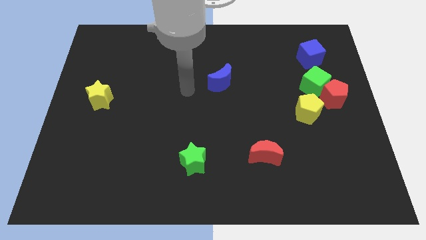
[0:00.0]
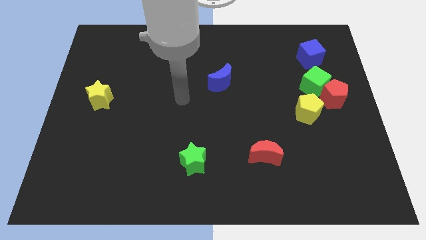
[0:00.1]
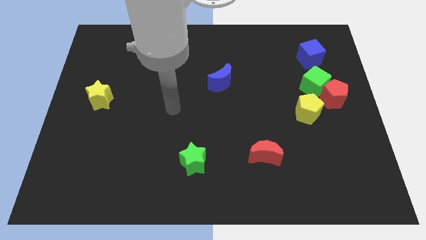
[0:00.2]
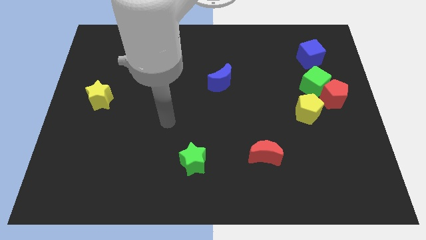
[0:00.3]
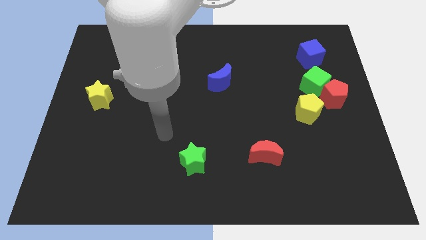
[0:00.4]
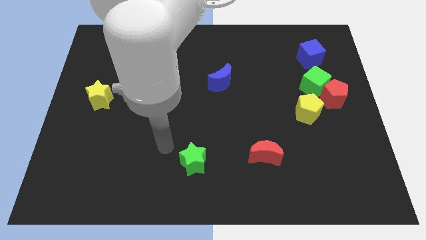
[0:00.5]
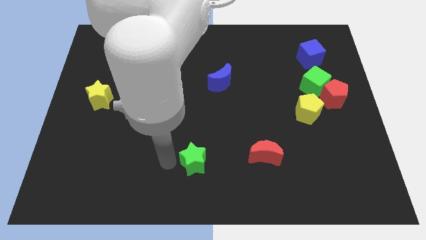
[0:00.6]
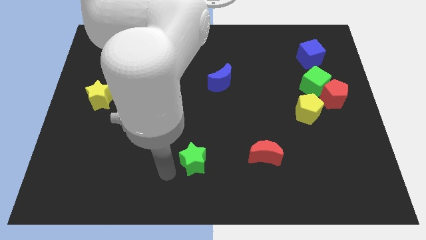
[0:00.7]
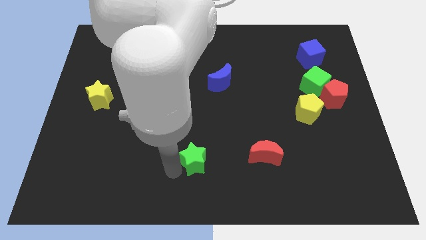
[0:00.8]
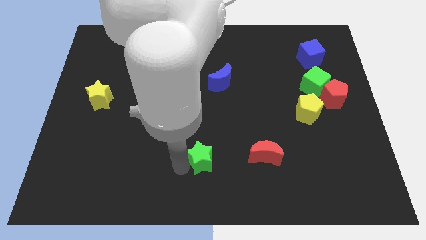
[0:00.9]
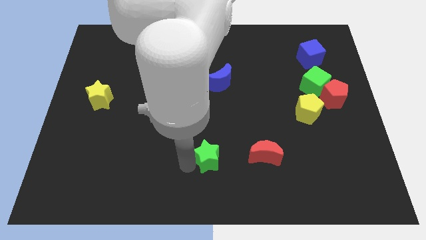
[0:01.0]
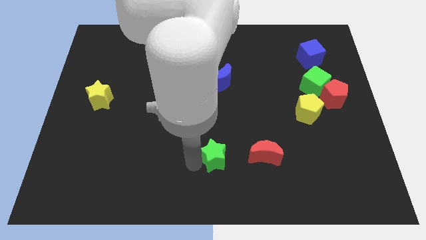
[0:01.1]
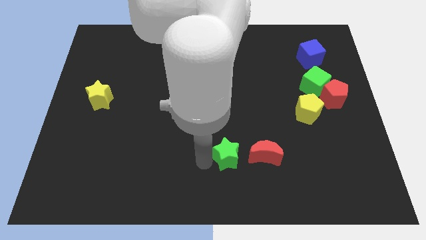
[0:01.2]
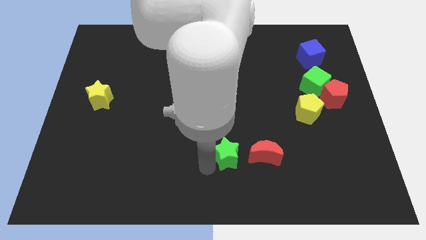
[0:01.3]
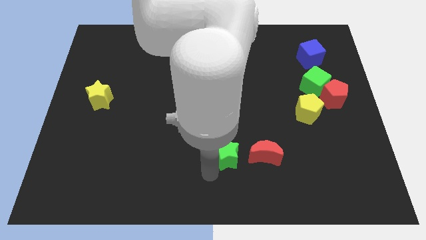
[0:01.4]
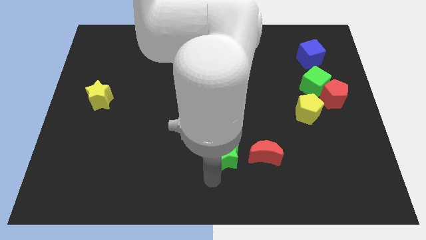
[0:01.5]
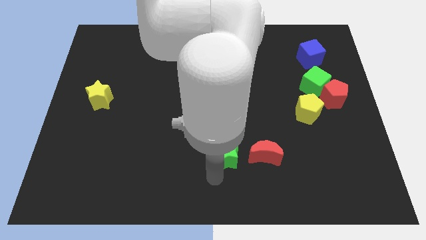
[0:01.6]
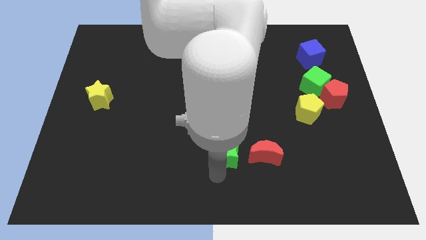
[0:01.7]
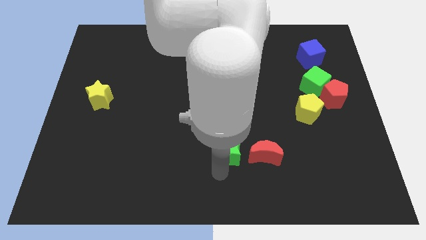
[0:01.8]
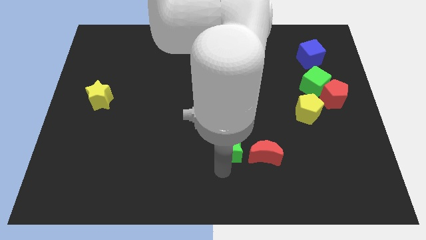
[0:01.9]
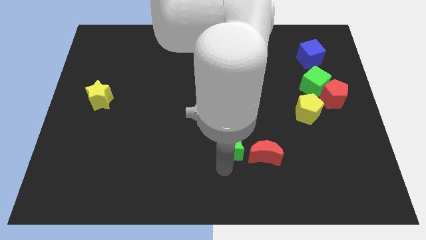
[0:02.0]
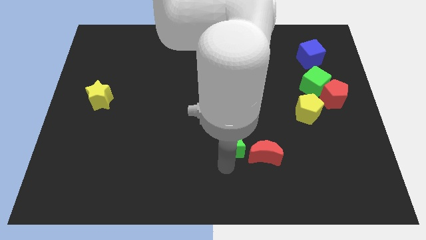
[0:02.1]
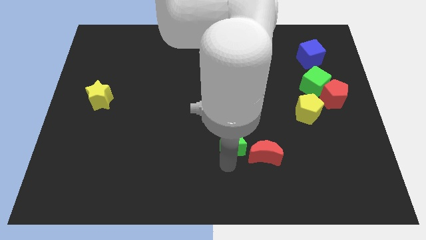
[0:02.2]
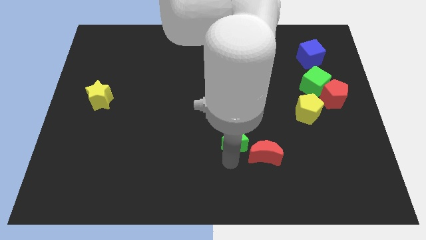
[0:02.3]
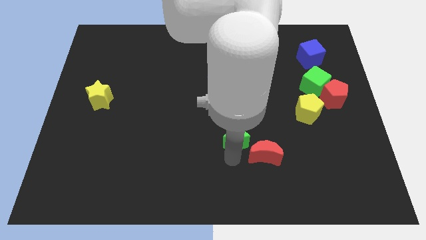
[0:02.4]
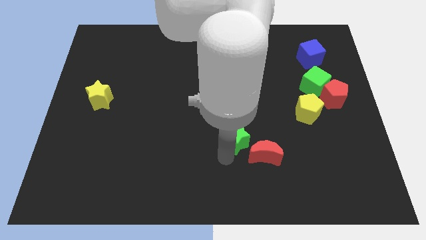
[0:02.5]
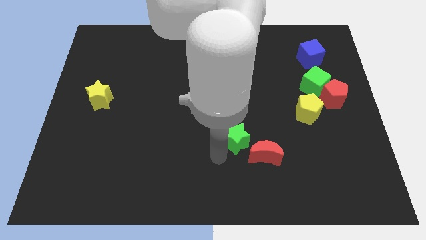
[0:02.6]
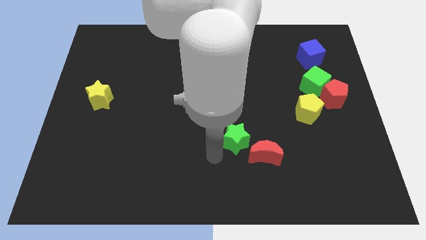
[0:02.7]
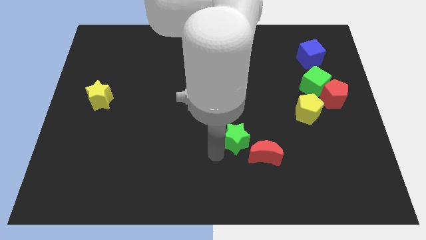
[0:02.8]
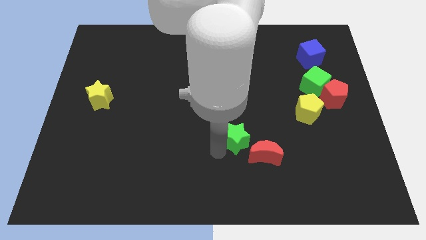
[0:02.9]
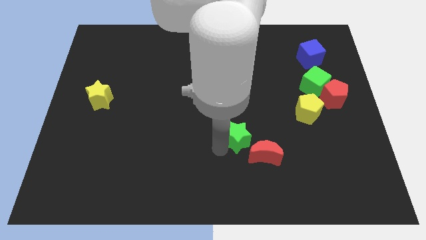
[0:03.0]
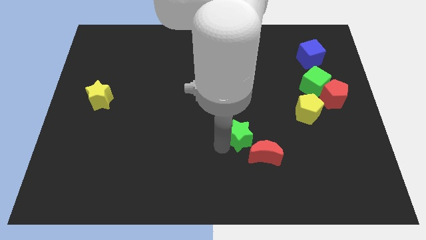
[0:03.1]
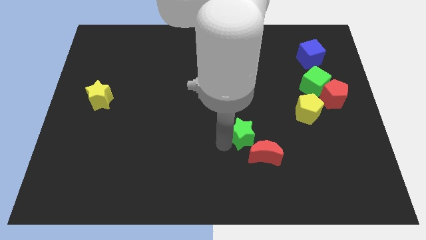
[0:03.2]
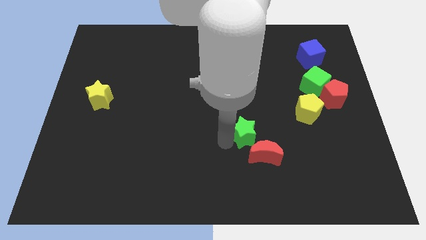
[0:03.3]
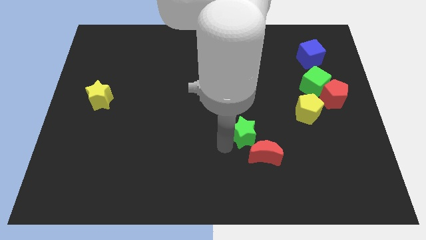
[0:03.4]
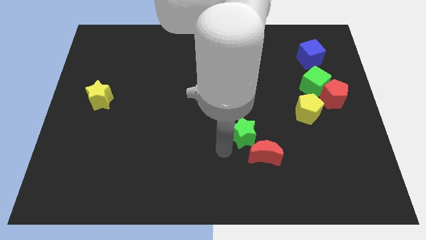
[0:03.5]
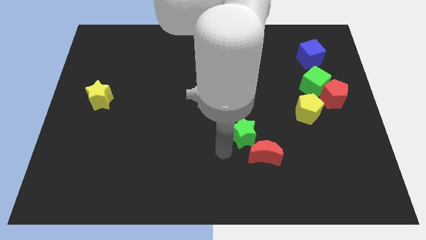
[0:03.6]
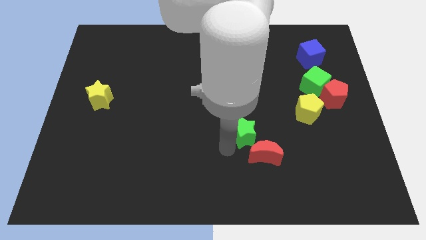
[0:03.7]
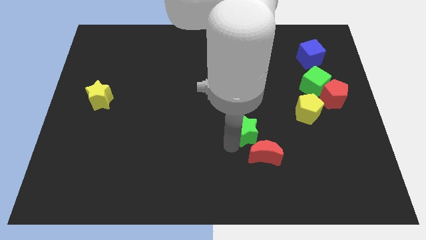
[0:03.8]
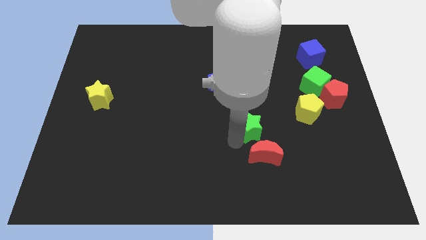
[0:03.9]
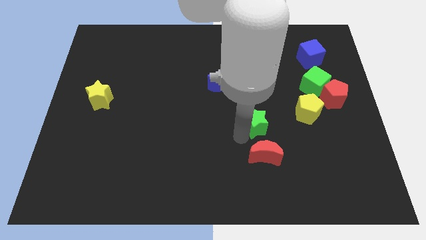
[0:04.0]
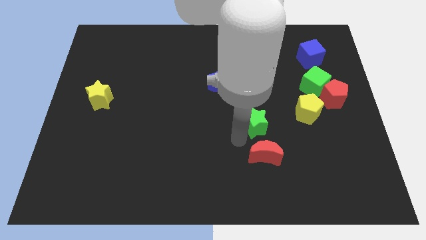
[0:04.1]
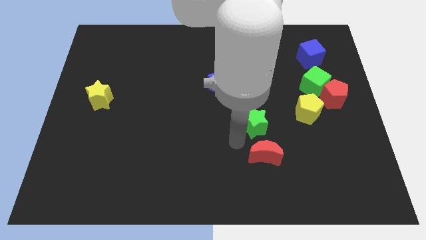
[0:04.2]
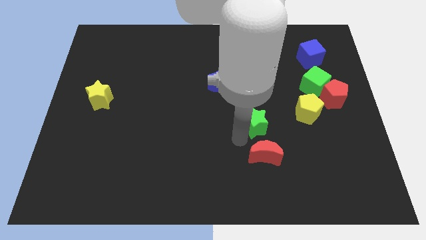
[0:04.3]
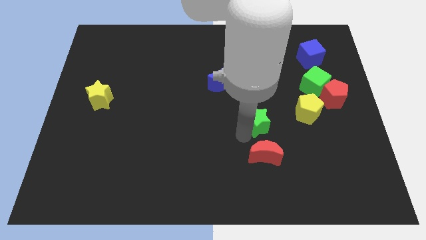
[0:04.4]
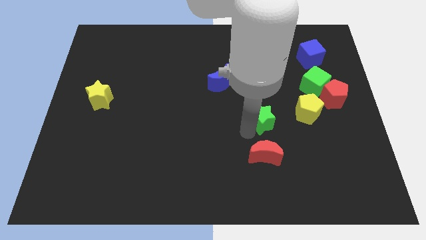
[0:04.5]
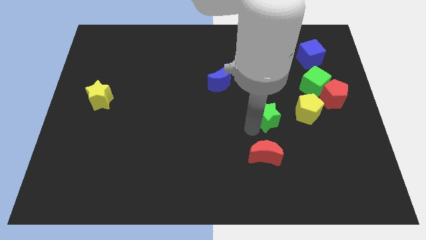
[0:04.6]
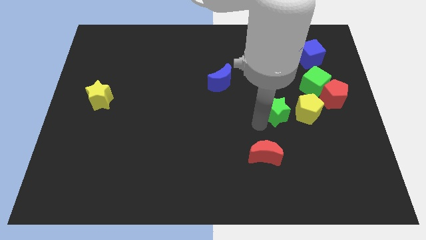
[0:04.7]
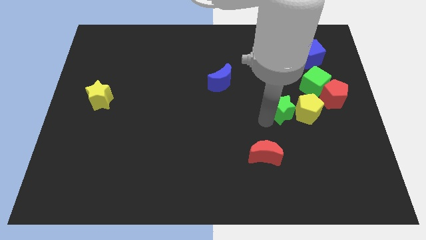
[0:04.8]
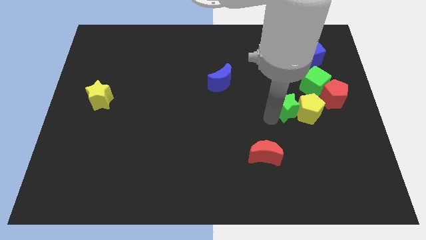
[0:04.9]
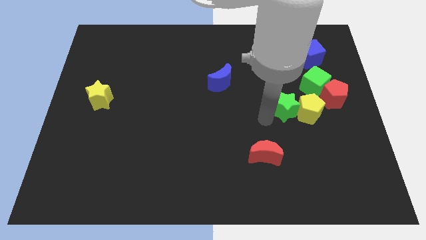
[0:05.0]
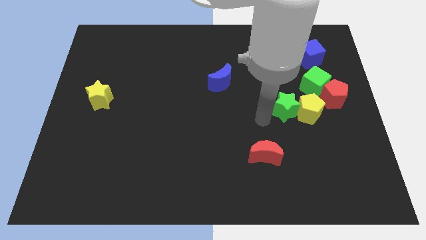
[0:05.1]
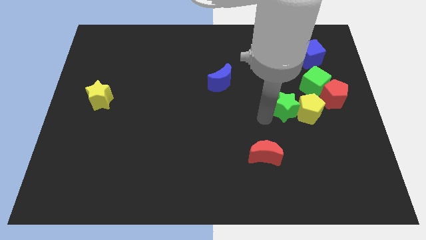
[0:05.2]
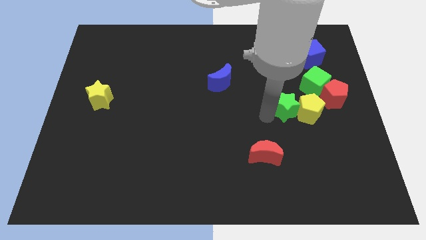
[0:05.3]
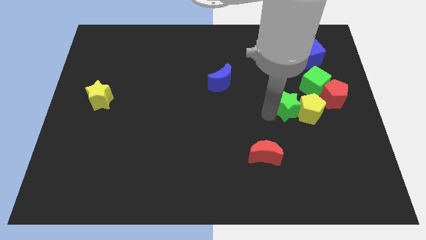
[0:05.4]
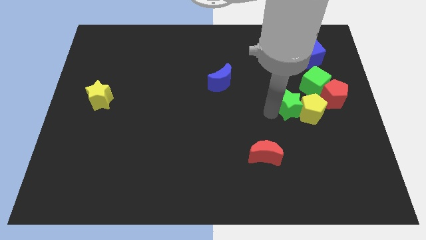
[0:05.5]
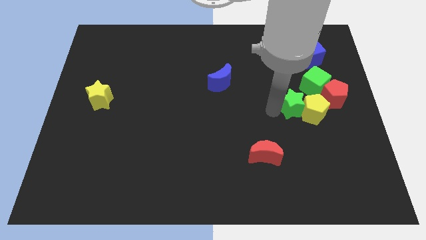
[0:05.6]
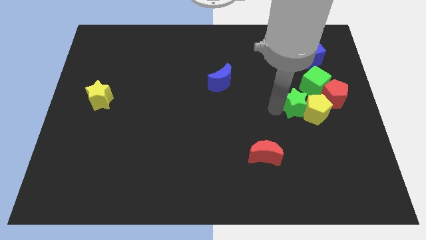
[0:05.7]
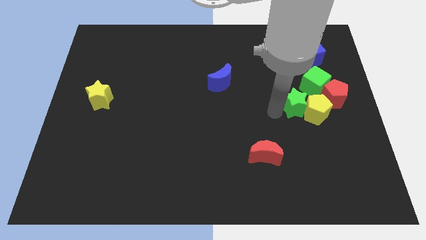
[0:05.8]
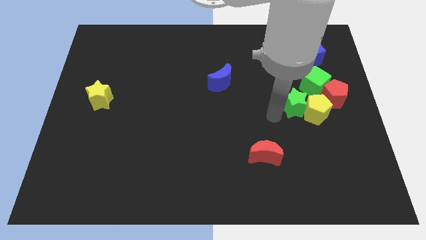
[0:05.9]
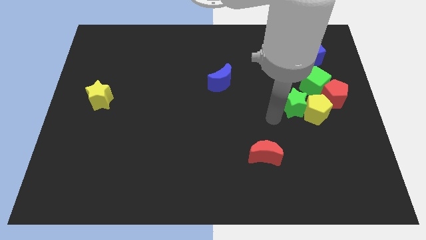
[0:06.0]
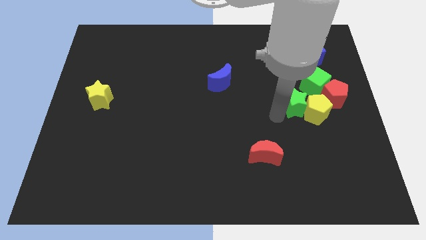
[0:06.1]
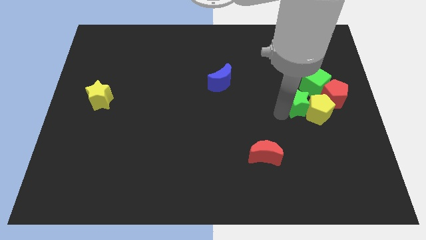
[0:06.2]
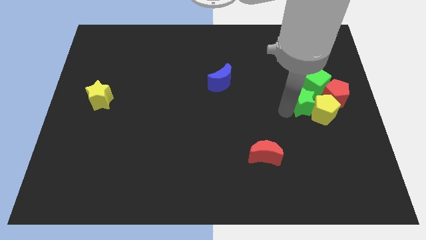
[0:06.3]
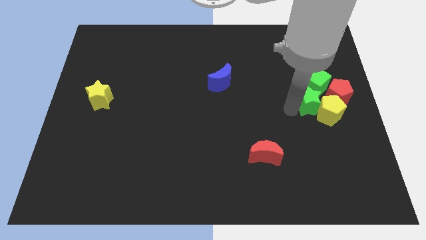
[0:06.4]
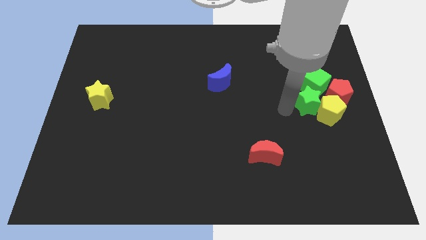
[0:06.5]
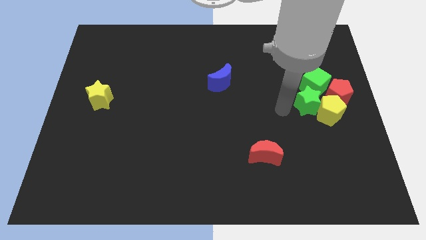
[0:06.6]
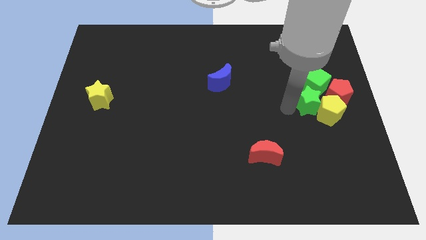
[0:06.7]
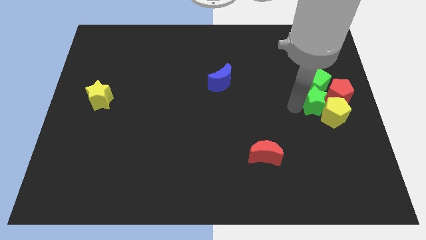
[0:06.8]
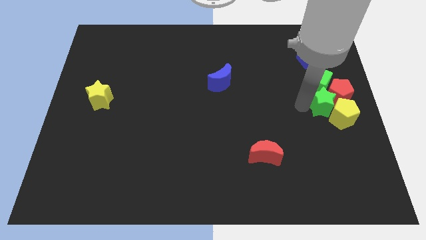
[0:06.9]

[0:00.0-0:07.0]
put the green star next to the red pentagon
